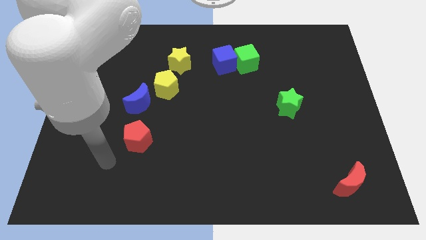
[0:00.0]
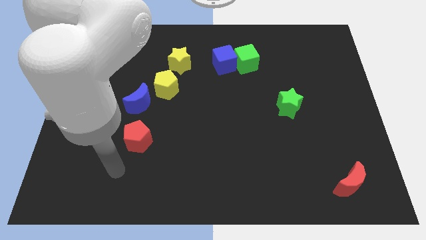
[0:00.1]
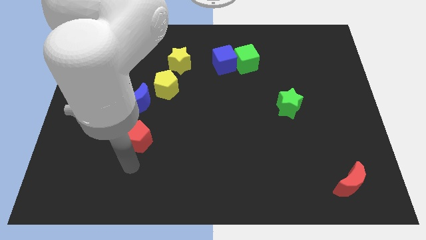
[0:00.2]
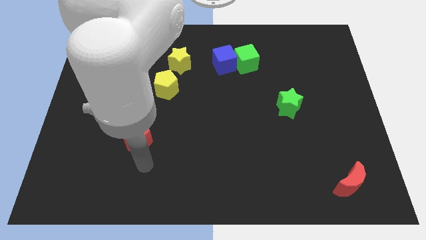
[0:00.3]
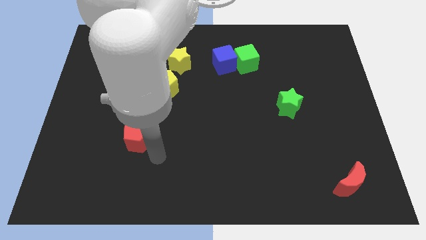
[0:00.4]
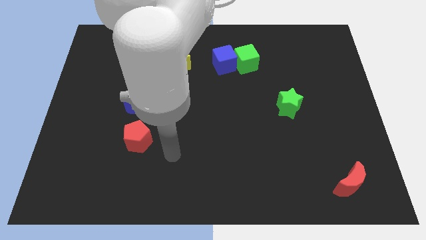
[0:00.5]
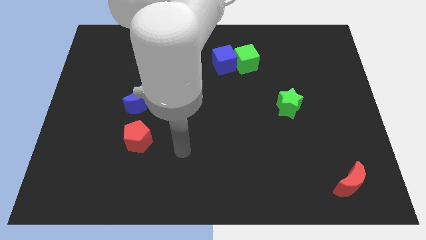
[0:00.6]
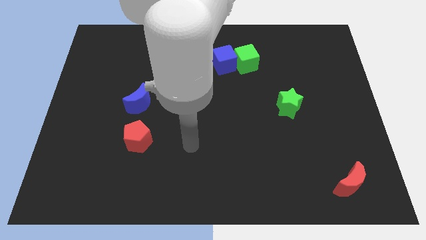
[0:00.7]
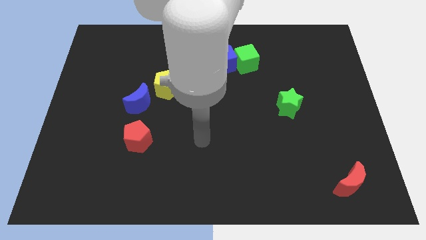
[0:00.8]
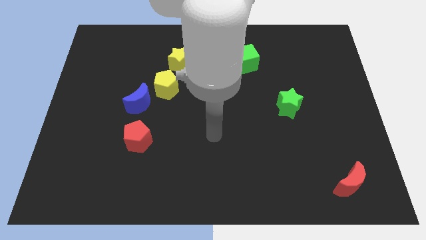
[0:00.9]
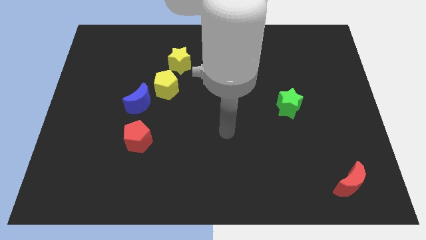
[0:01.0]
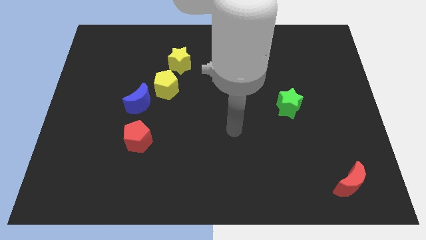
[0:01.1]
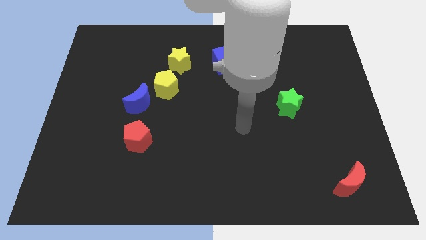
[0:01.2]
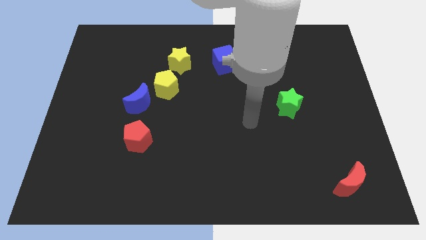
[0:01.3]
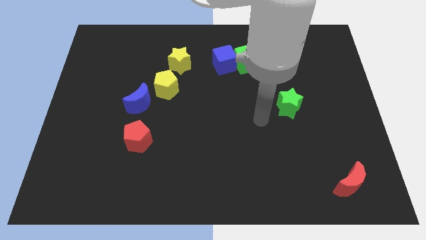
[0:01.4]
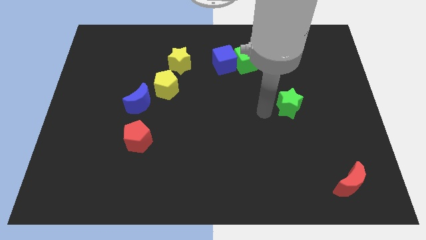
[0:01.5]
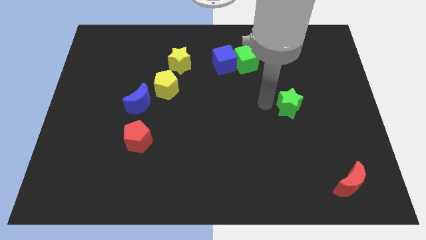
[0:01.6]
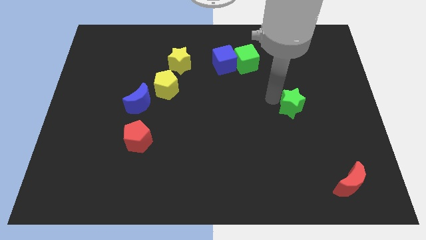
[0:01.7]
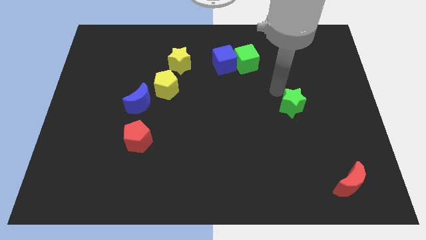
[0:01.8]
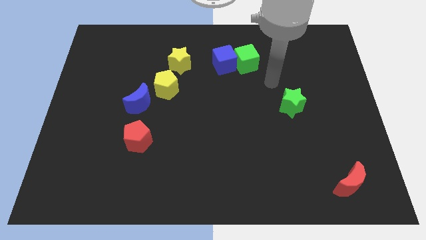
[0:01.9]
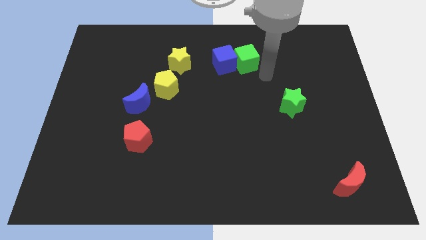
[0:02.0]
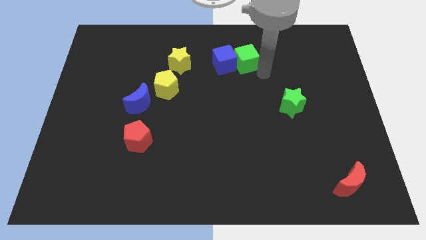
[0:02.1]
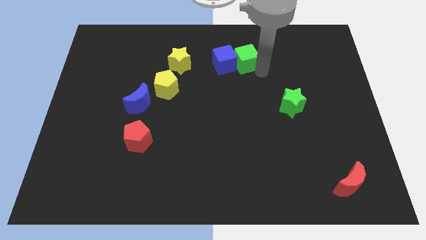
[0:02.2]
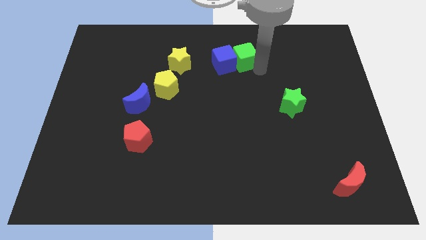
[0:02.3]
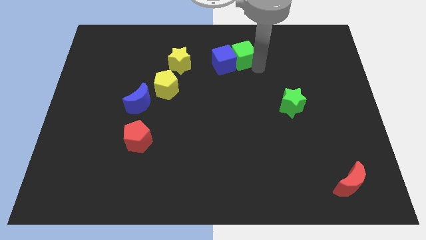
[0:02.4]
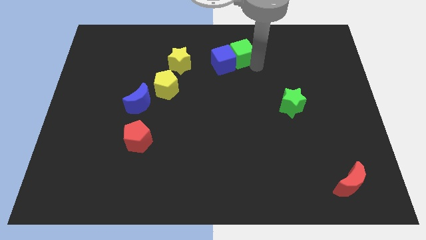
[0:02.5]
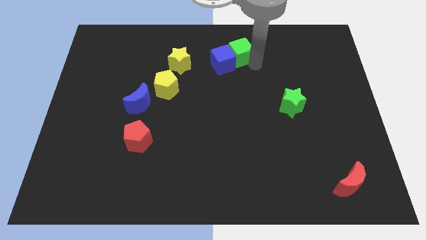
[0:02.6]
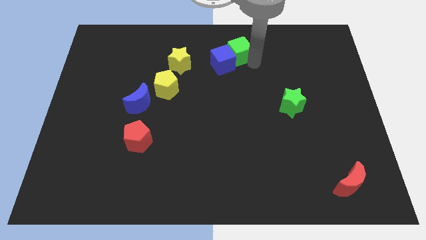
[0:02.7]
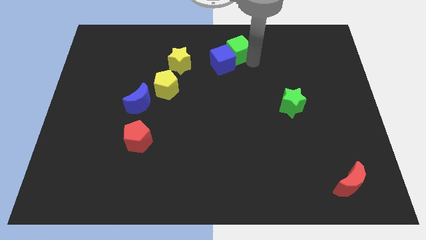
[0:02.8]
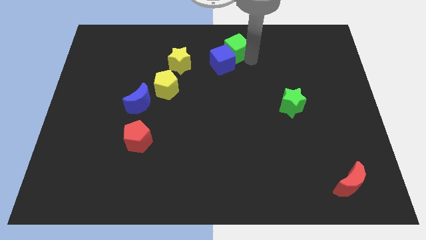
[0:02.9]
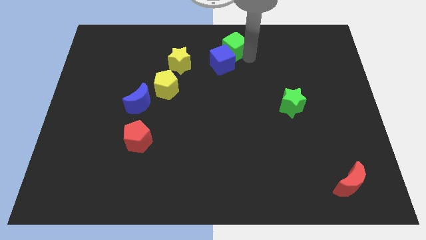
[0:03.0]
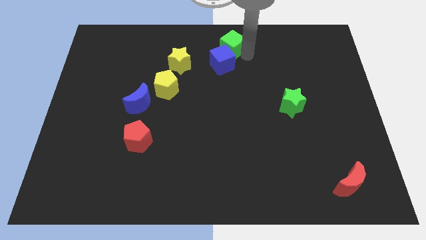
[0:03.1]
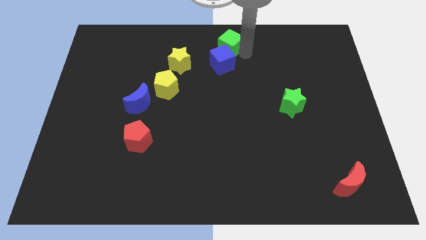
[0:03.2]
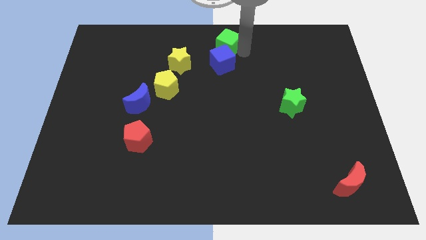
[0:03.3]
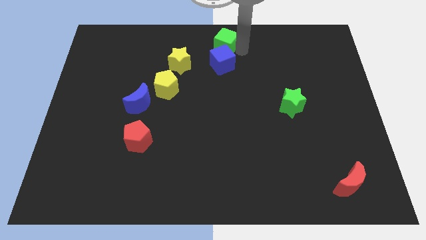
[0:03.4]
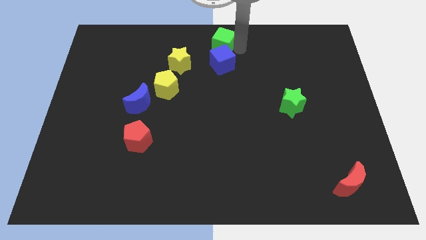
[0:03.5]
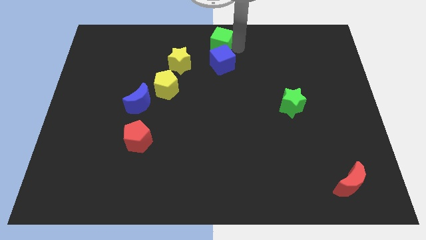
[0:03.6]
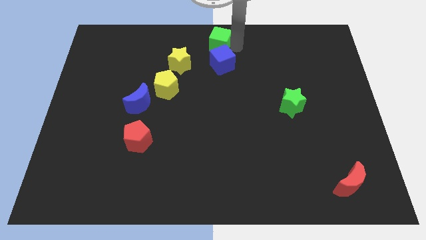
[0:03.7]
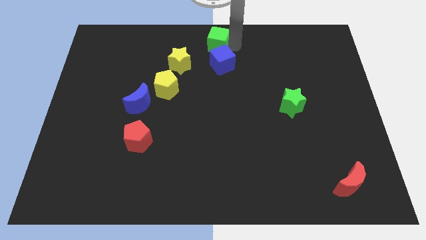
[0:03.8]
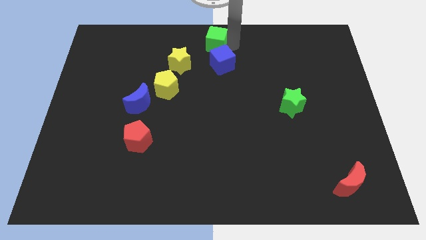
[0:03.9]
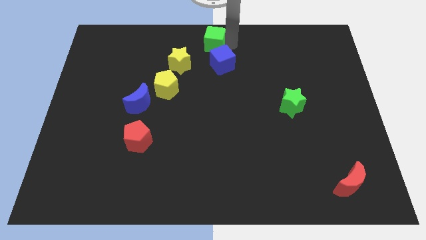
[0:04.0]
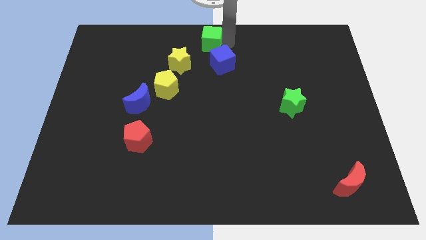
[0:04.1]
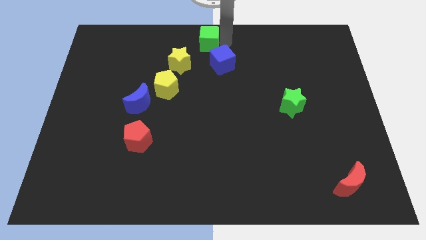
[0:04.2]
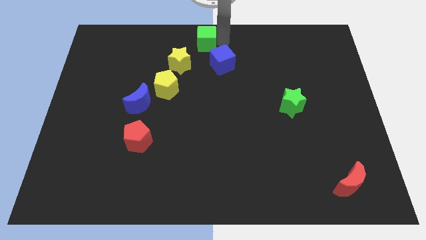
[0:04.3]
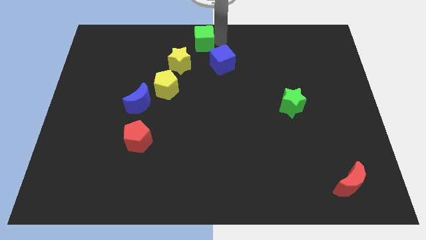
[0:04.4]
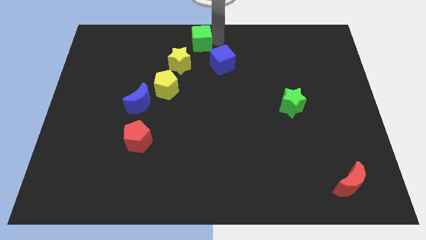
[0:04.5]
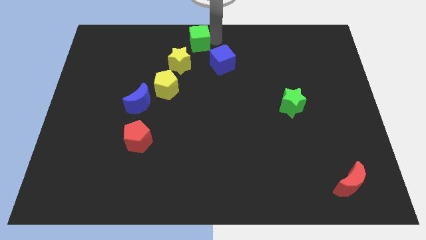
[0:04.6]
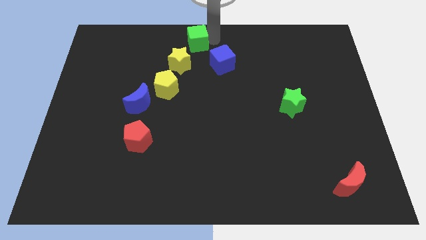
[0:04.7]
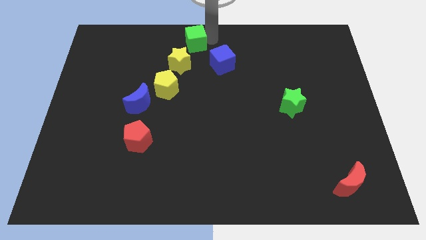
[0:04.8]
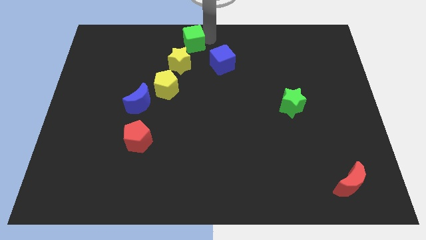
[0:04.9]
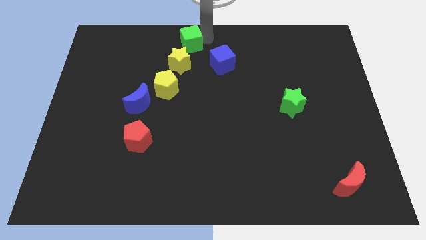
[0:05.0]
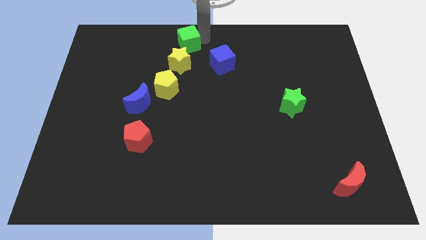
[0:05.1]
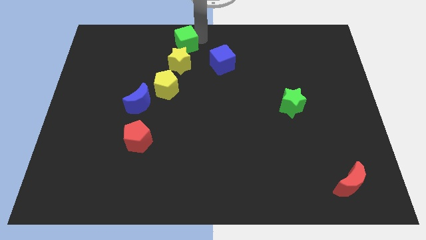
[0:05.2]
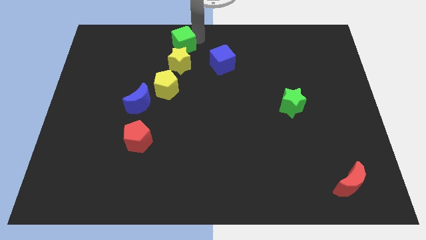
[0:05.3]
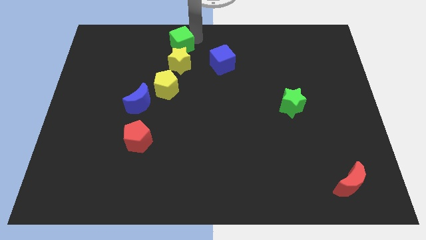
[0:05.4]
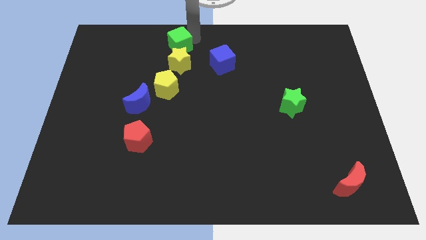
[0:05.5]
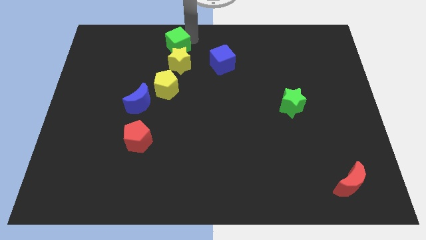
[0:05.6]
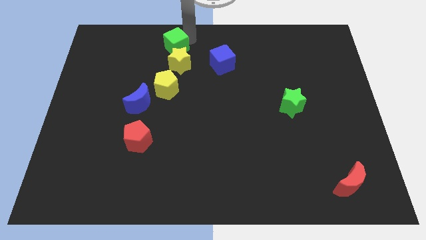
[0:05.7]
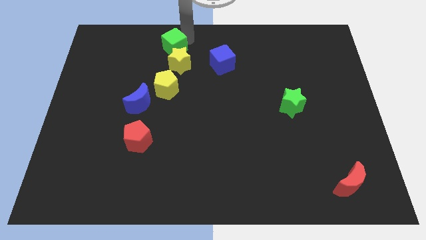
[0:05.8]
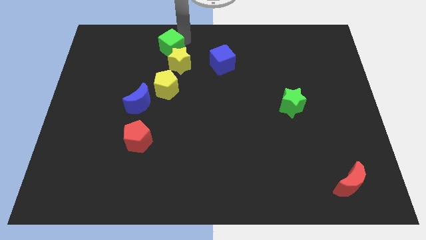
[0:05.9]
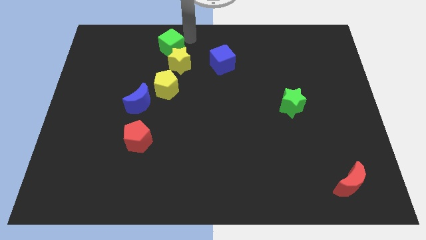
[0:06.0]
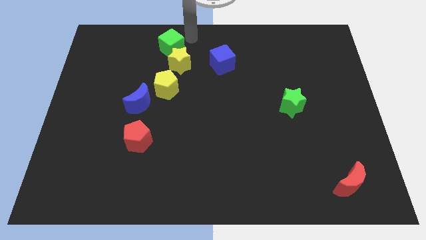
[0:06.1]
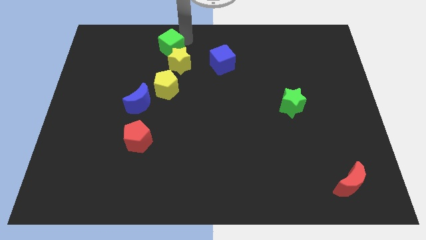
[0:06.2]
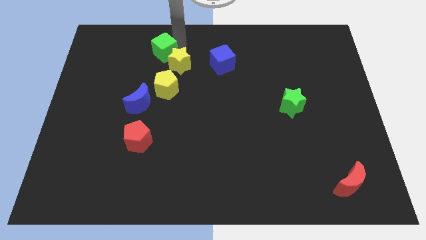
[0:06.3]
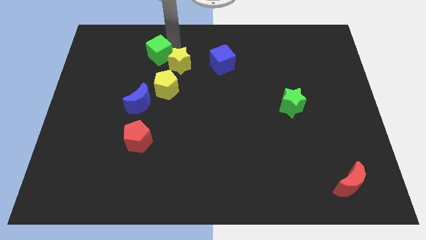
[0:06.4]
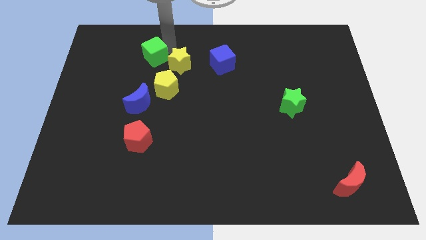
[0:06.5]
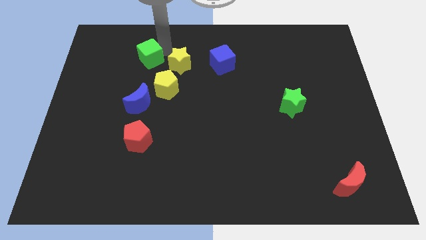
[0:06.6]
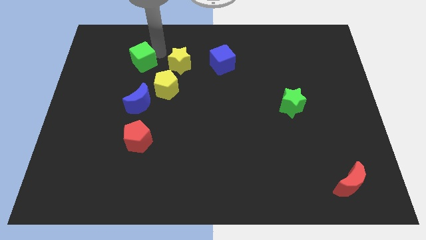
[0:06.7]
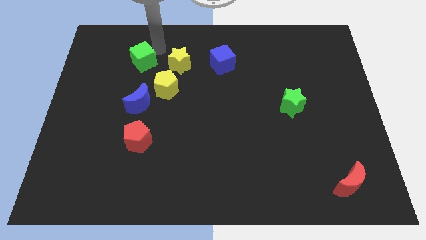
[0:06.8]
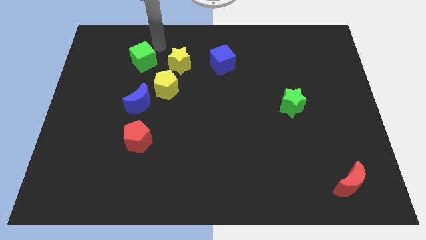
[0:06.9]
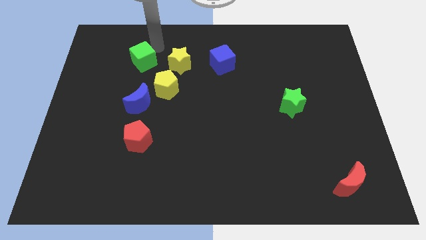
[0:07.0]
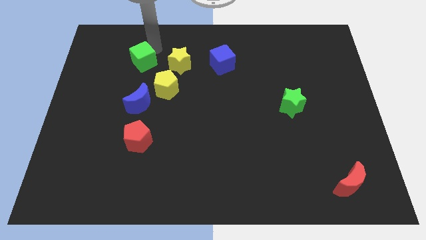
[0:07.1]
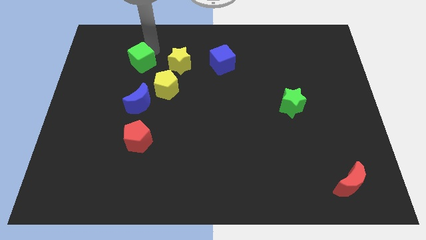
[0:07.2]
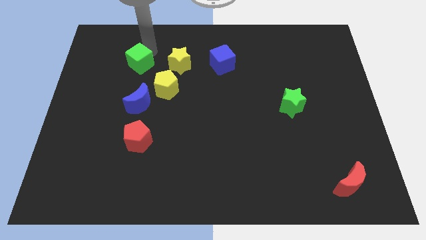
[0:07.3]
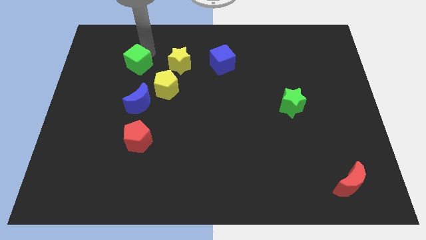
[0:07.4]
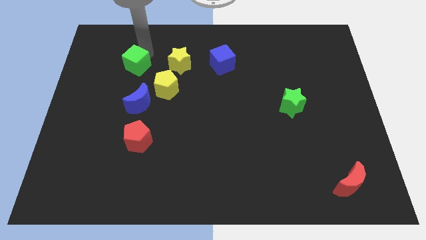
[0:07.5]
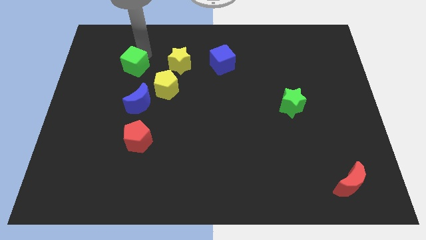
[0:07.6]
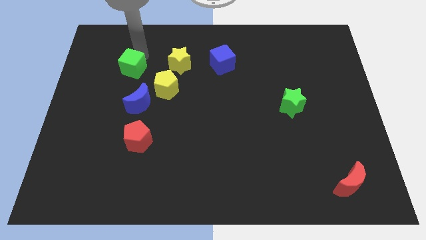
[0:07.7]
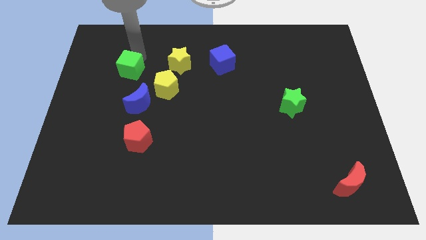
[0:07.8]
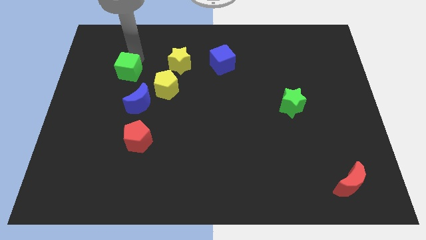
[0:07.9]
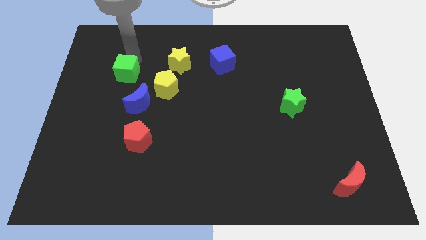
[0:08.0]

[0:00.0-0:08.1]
push the green cube to the top left of the blue moon
